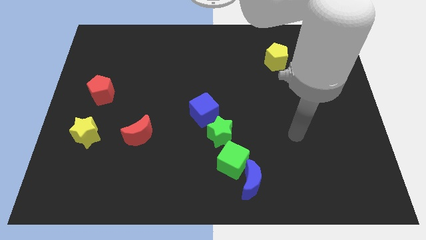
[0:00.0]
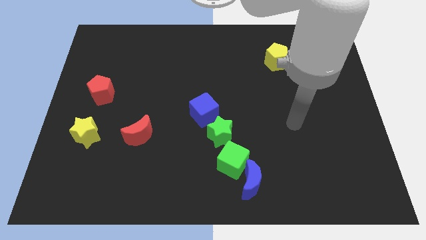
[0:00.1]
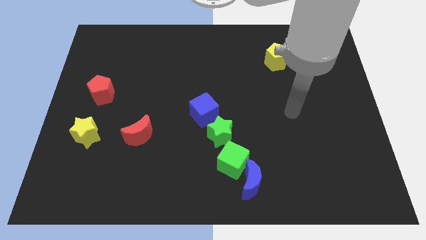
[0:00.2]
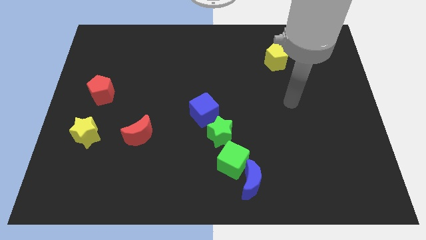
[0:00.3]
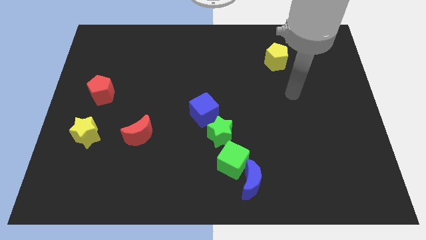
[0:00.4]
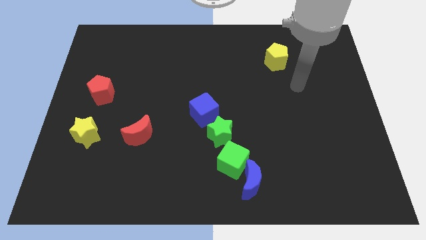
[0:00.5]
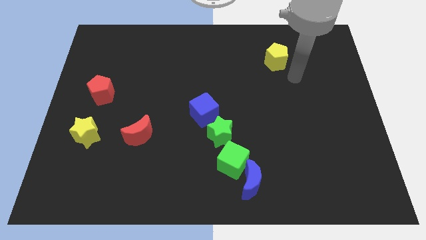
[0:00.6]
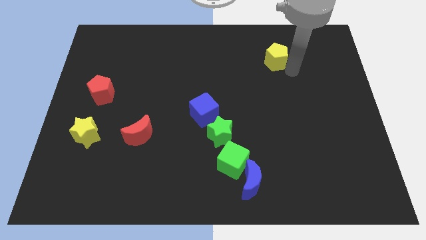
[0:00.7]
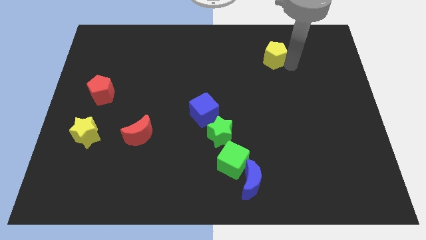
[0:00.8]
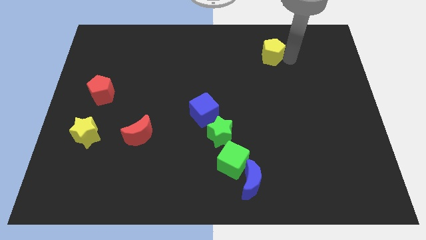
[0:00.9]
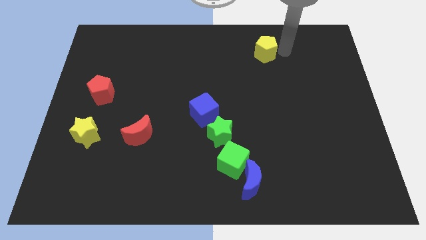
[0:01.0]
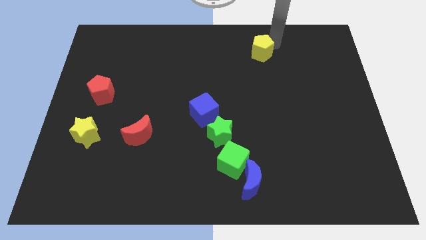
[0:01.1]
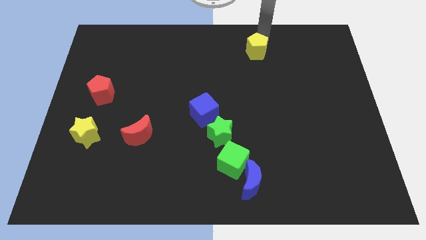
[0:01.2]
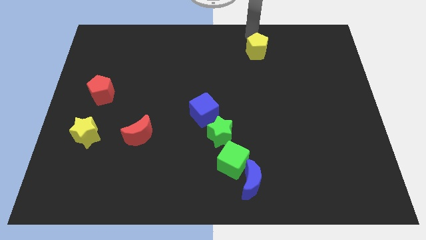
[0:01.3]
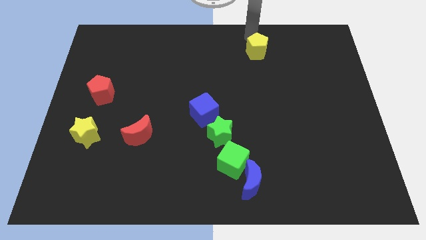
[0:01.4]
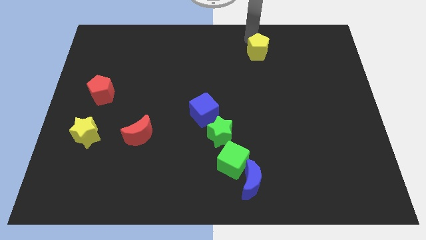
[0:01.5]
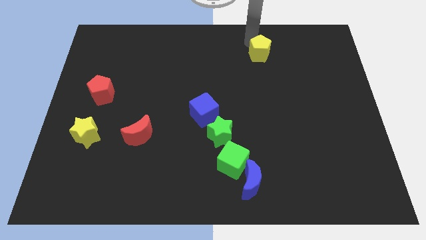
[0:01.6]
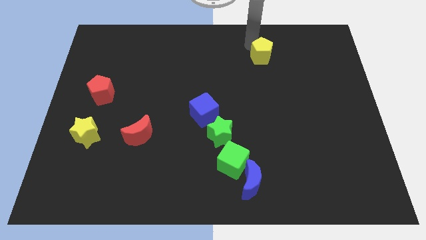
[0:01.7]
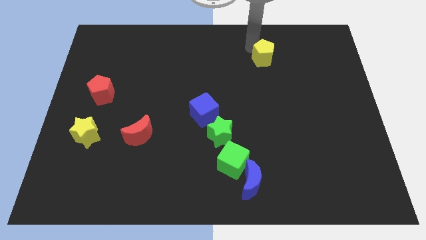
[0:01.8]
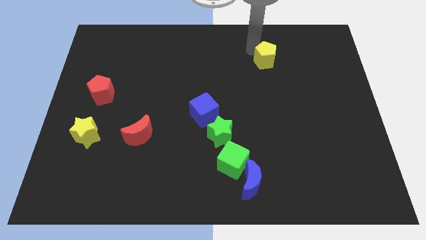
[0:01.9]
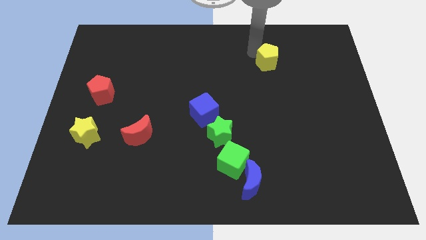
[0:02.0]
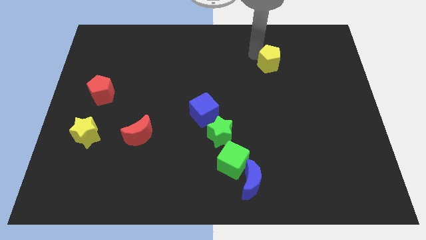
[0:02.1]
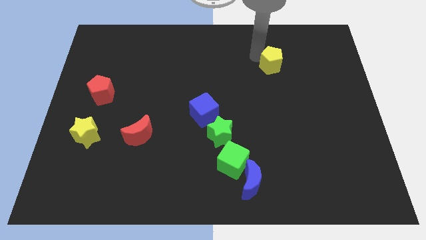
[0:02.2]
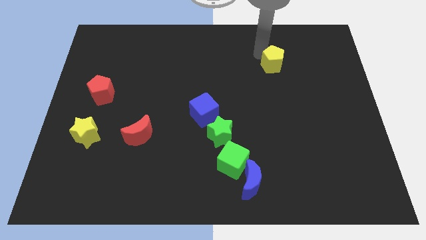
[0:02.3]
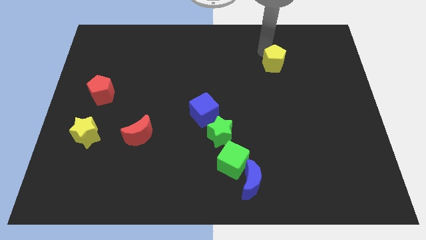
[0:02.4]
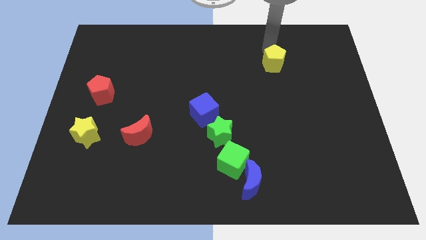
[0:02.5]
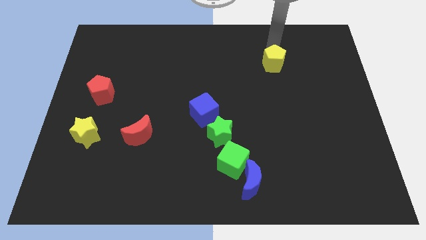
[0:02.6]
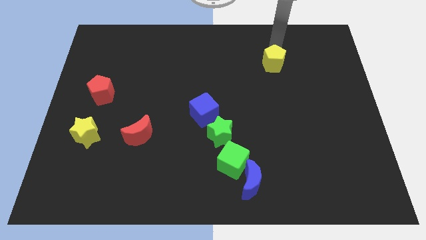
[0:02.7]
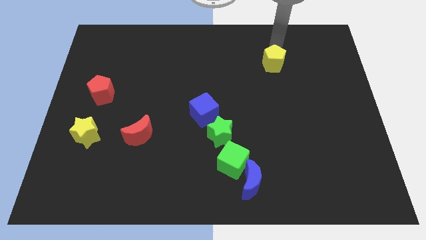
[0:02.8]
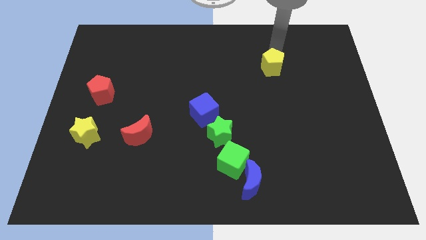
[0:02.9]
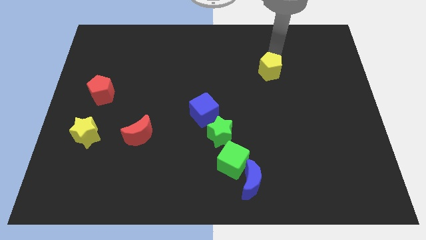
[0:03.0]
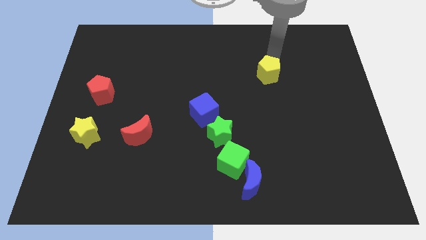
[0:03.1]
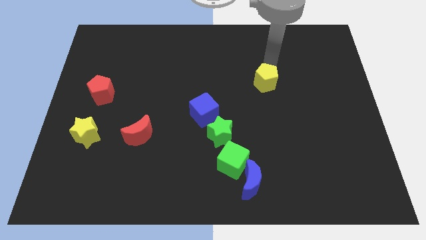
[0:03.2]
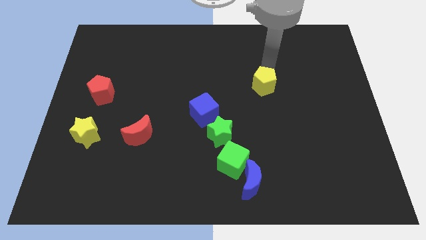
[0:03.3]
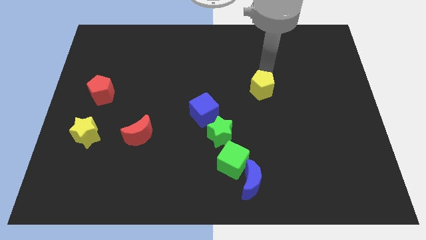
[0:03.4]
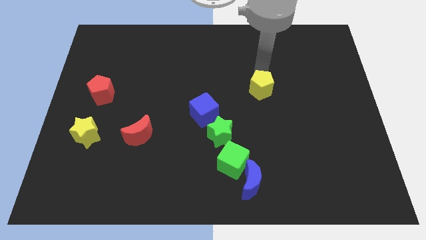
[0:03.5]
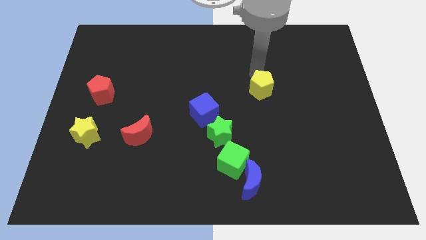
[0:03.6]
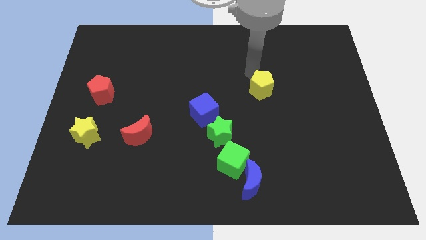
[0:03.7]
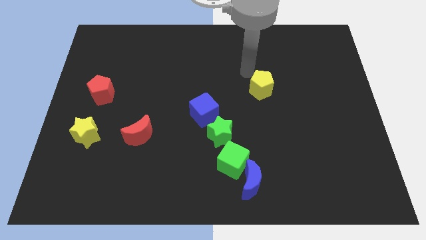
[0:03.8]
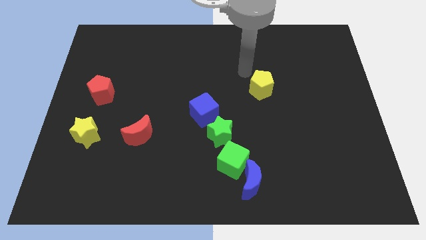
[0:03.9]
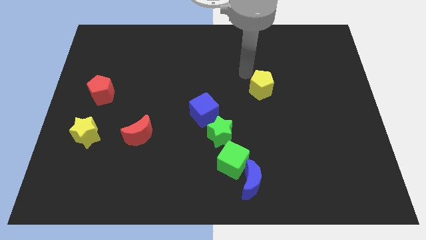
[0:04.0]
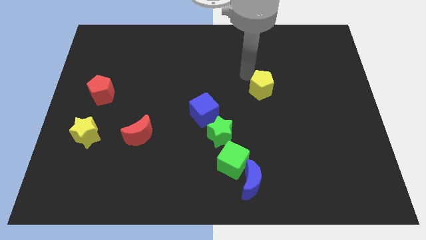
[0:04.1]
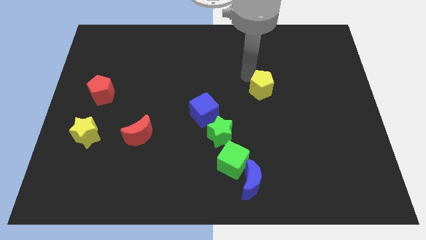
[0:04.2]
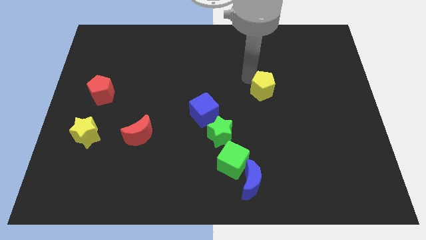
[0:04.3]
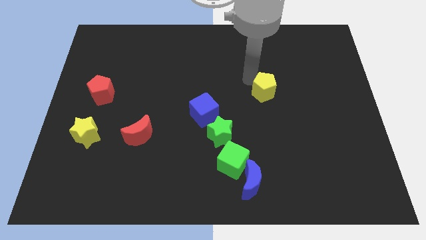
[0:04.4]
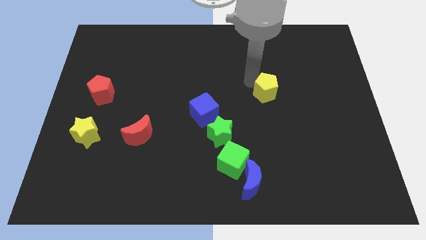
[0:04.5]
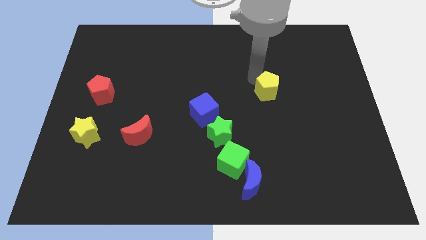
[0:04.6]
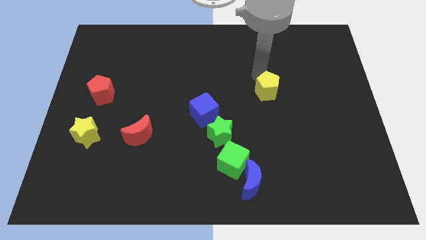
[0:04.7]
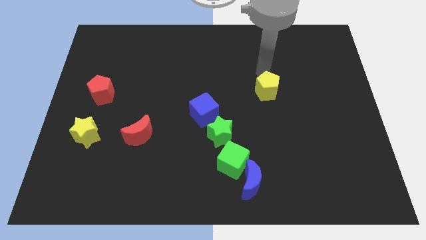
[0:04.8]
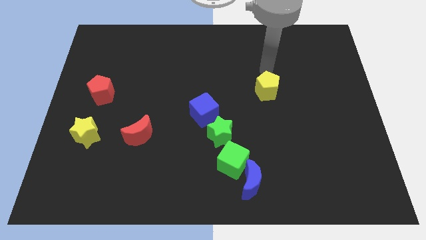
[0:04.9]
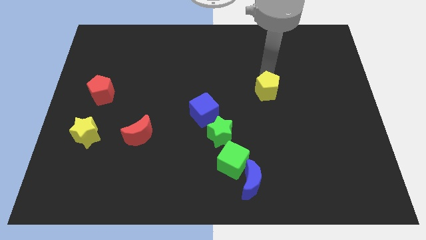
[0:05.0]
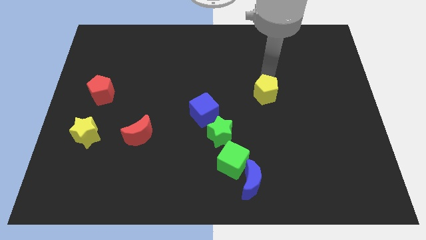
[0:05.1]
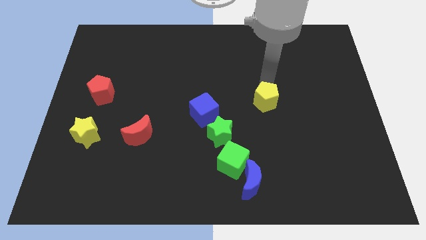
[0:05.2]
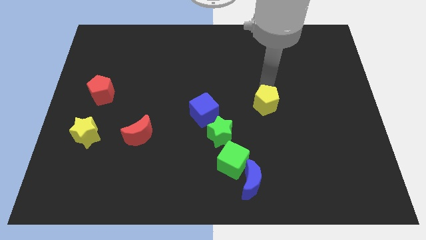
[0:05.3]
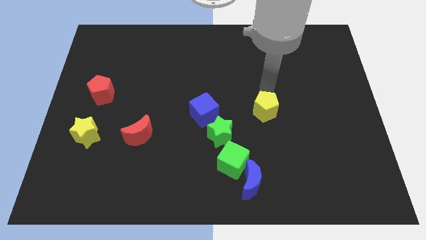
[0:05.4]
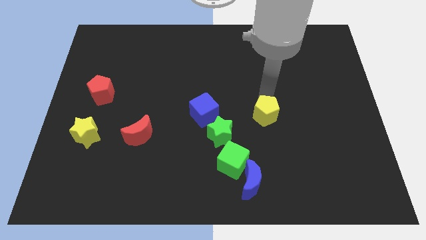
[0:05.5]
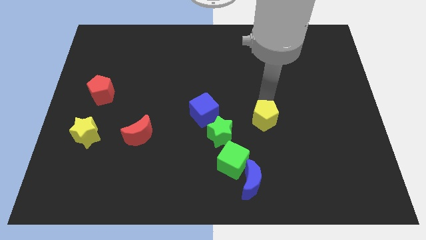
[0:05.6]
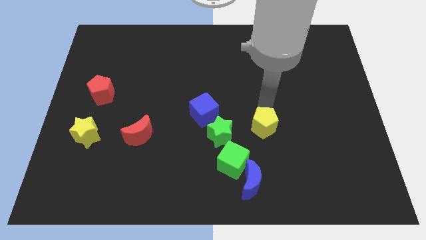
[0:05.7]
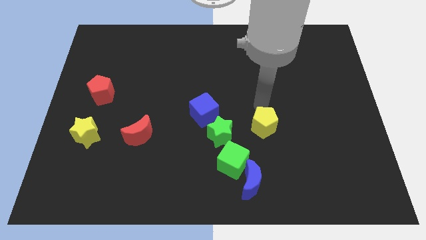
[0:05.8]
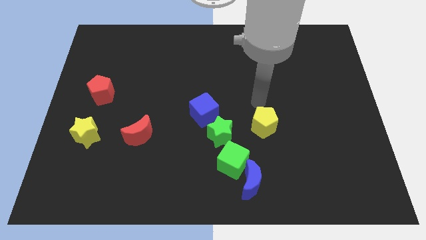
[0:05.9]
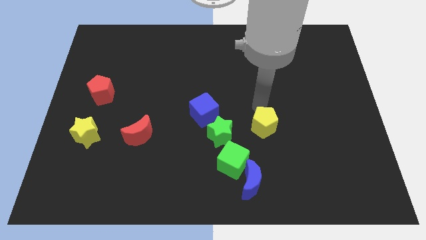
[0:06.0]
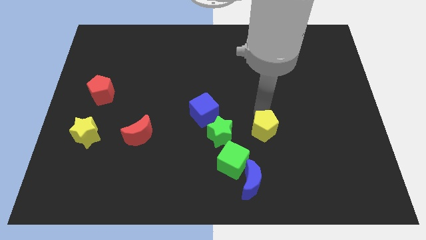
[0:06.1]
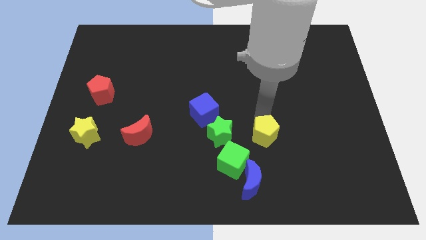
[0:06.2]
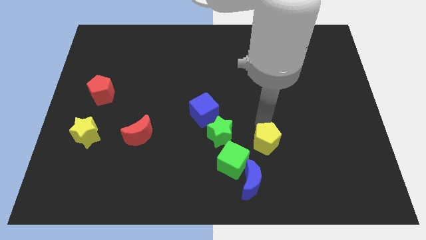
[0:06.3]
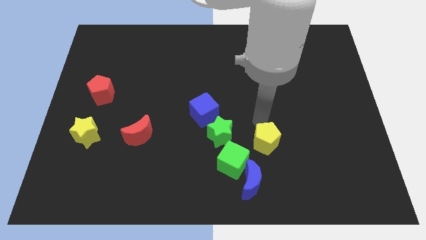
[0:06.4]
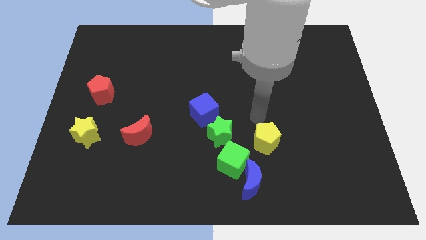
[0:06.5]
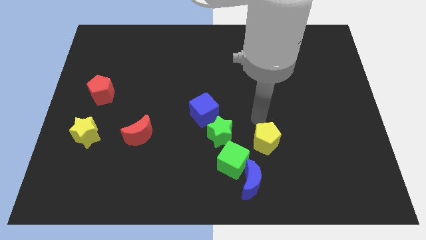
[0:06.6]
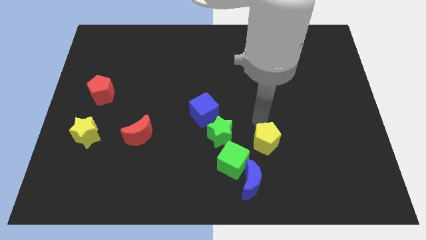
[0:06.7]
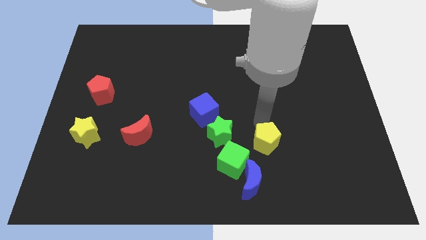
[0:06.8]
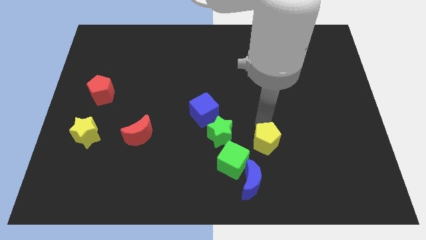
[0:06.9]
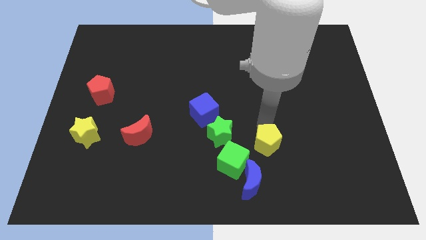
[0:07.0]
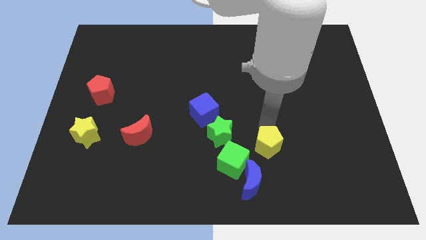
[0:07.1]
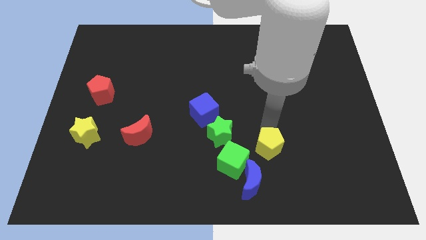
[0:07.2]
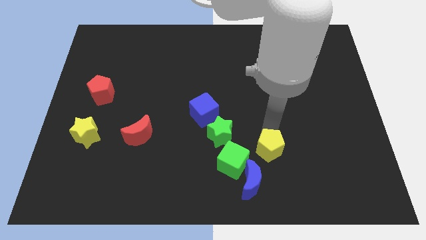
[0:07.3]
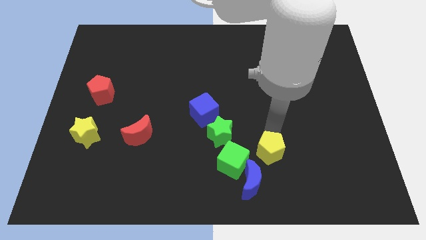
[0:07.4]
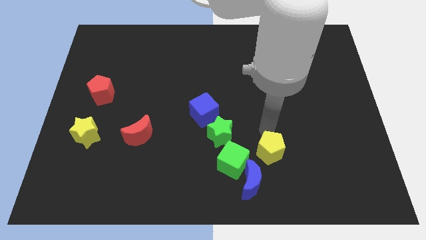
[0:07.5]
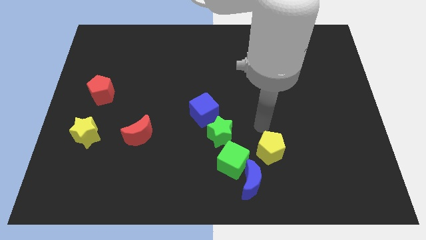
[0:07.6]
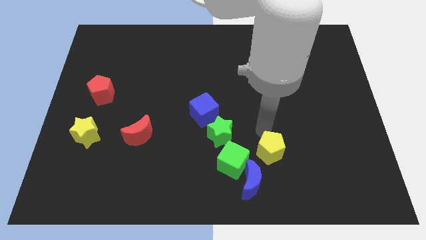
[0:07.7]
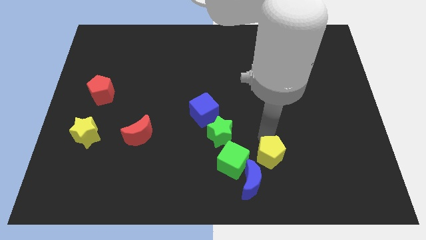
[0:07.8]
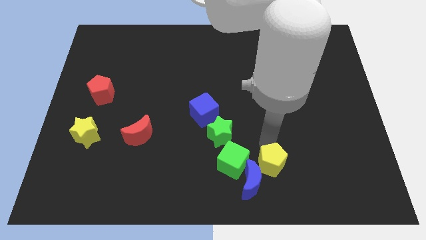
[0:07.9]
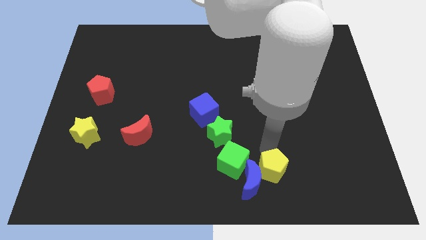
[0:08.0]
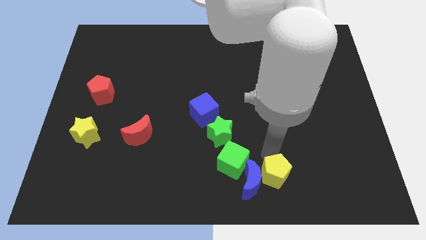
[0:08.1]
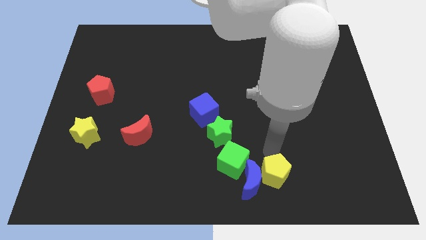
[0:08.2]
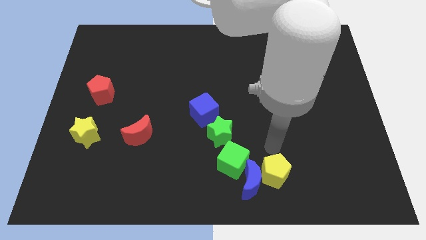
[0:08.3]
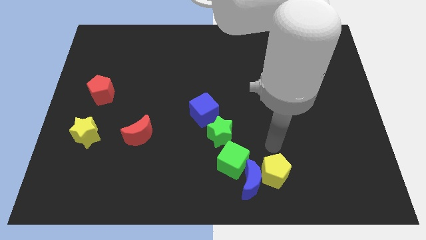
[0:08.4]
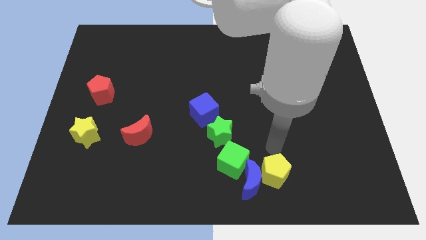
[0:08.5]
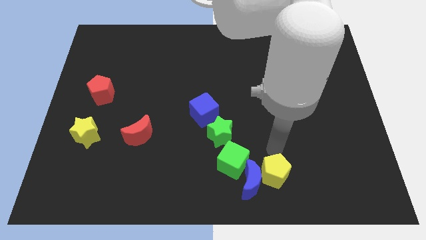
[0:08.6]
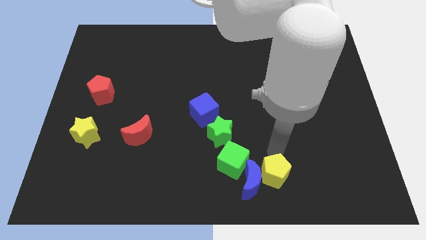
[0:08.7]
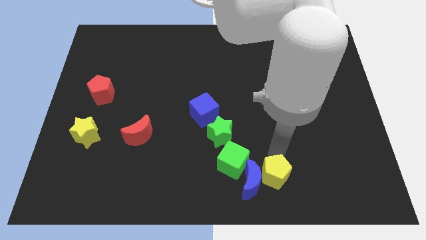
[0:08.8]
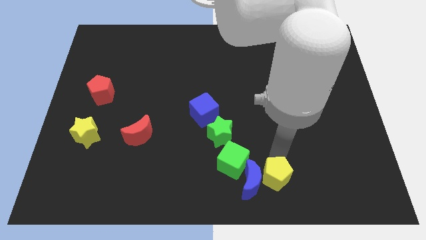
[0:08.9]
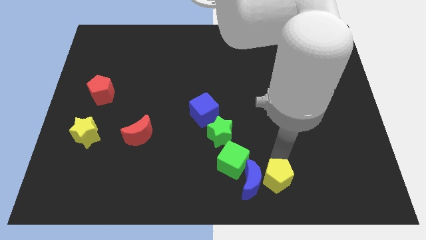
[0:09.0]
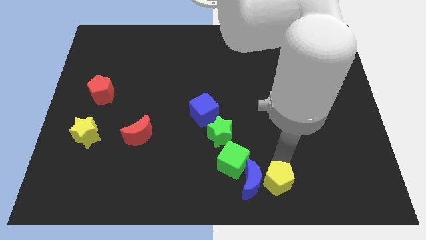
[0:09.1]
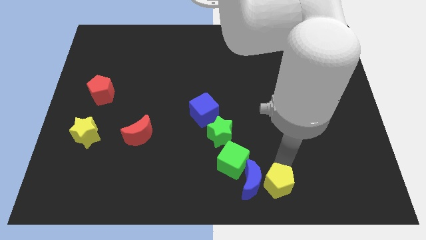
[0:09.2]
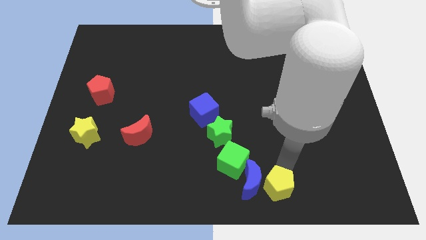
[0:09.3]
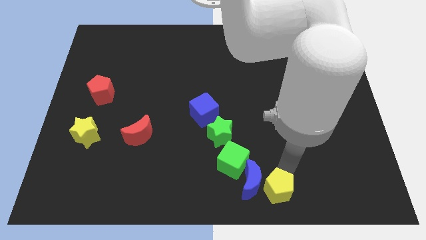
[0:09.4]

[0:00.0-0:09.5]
move the yellow pentagon to the bottom side
